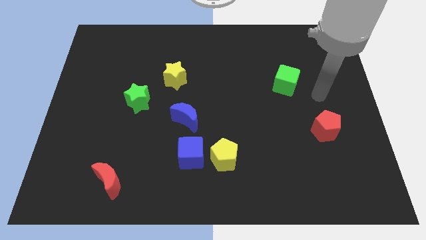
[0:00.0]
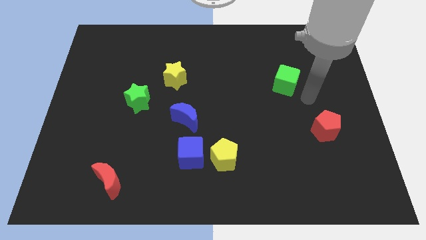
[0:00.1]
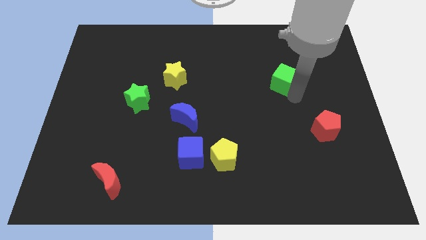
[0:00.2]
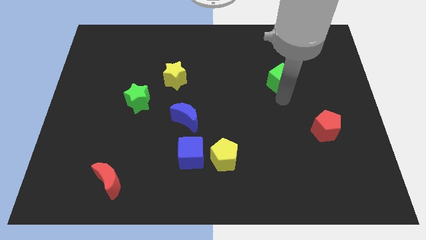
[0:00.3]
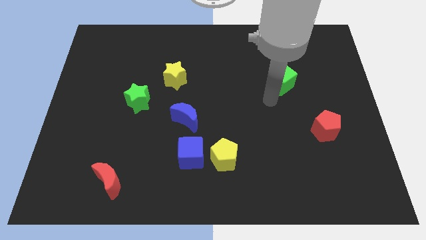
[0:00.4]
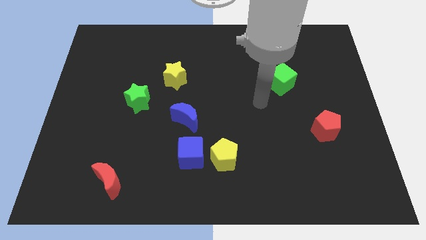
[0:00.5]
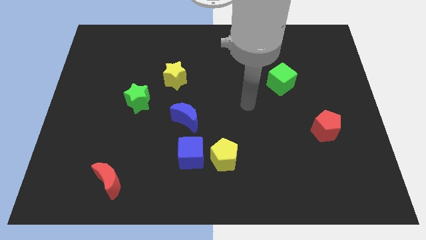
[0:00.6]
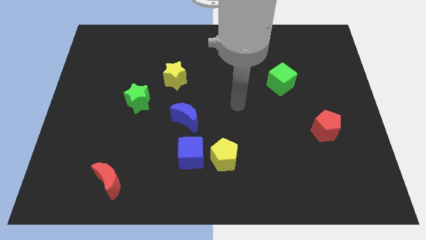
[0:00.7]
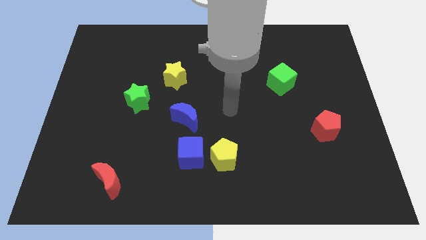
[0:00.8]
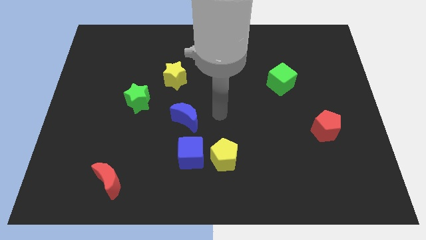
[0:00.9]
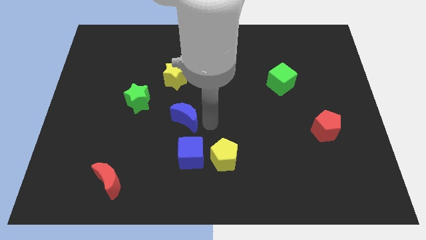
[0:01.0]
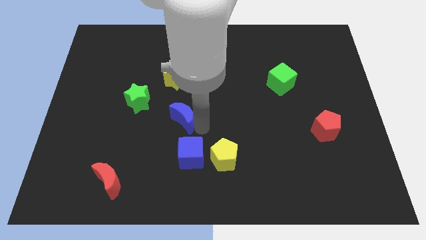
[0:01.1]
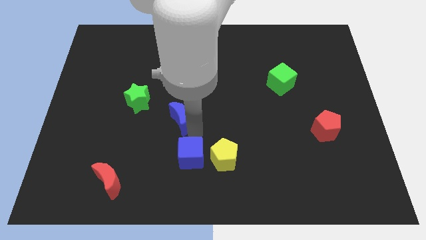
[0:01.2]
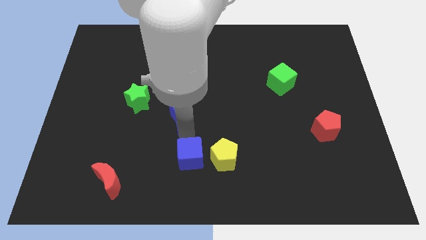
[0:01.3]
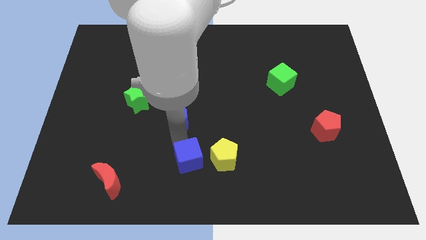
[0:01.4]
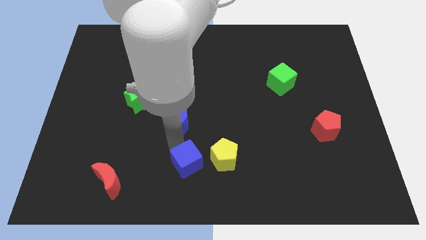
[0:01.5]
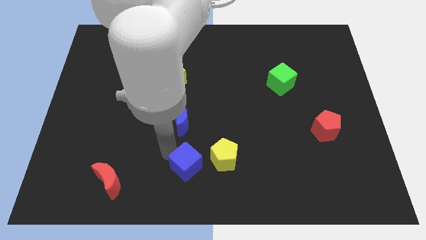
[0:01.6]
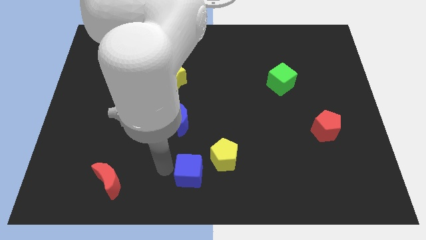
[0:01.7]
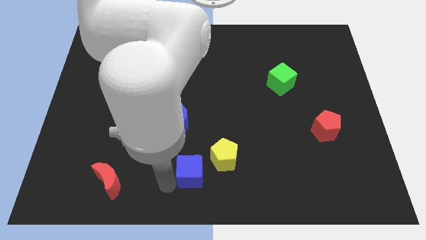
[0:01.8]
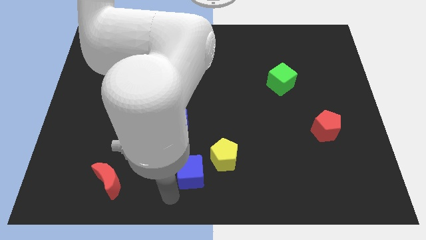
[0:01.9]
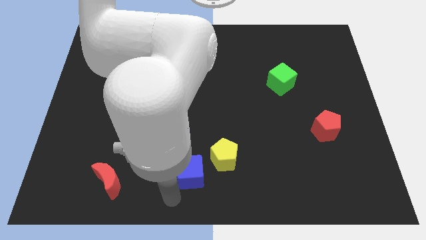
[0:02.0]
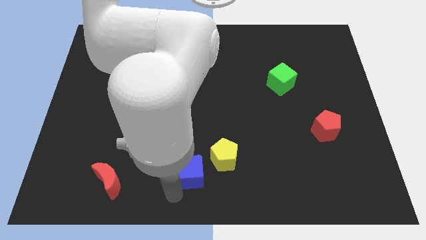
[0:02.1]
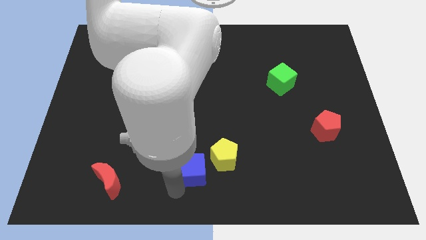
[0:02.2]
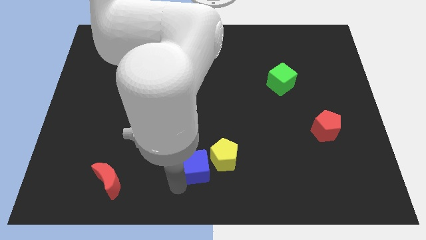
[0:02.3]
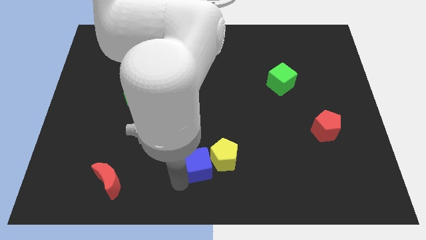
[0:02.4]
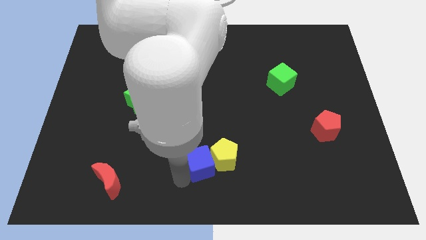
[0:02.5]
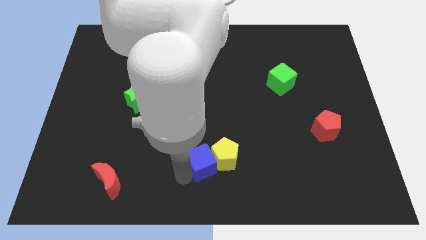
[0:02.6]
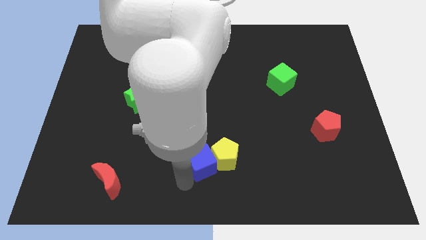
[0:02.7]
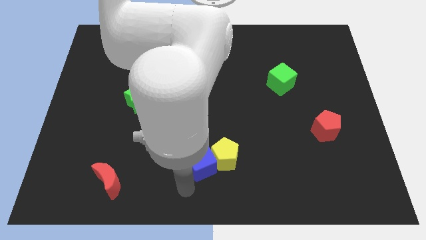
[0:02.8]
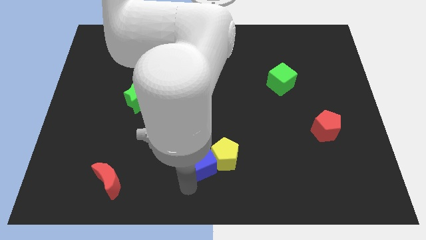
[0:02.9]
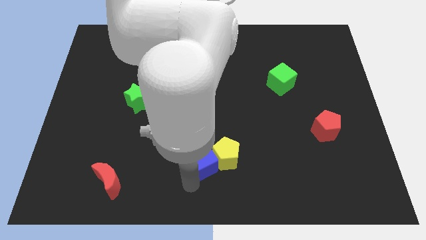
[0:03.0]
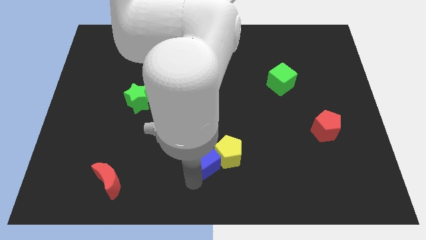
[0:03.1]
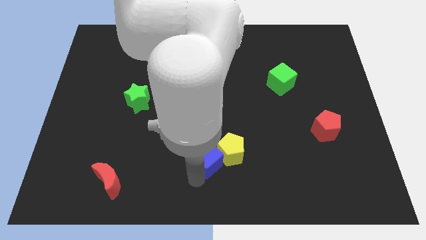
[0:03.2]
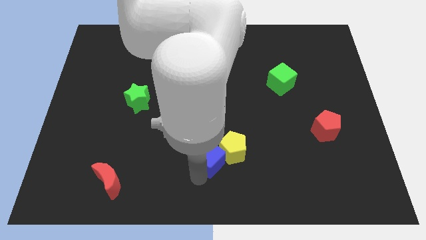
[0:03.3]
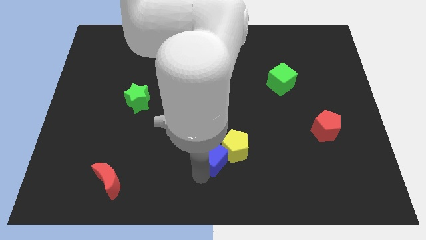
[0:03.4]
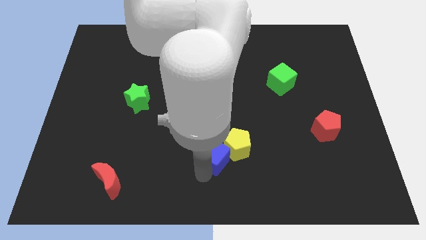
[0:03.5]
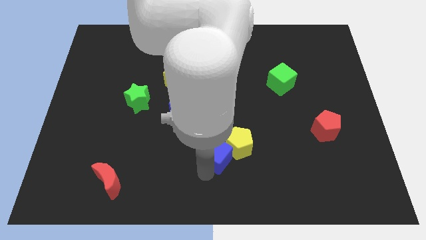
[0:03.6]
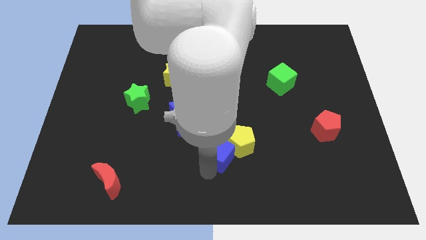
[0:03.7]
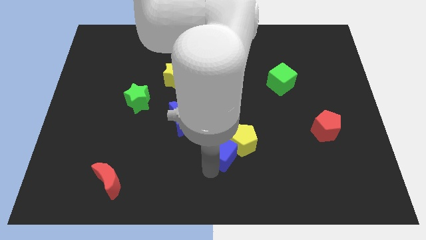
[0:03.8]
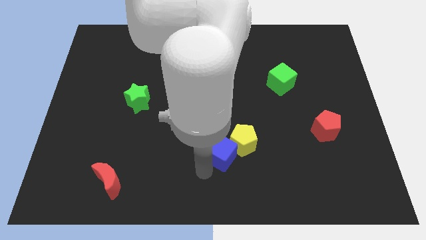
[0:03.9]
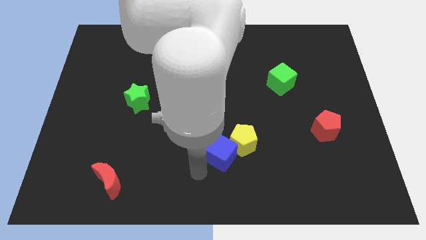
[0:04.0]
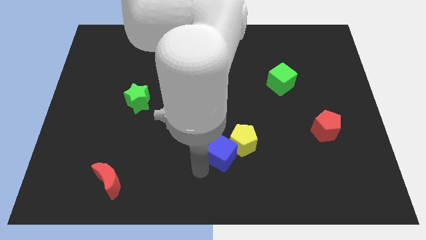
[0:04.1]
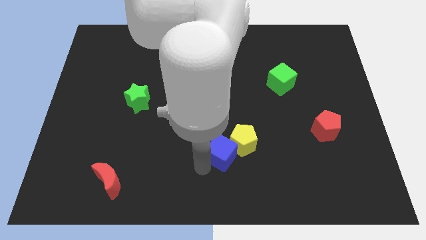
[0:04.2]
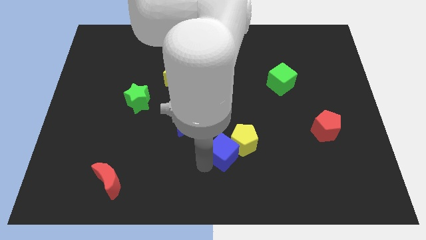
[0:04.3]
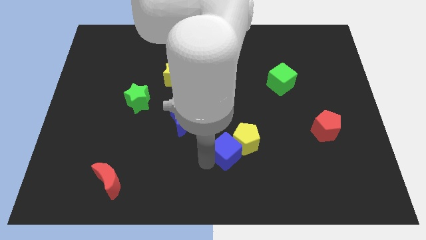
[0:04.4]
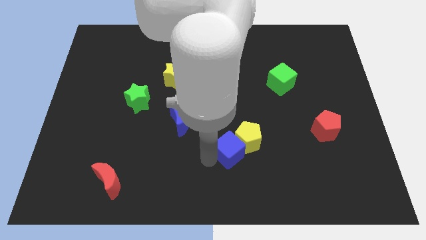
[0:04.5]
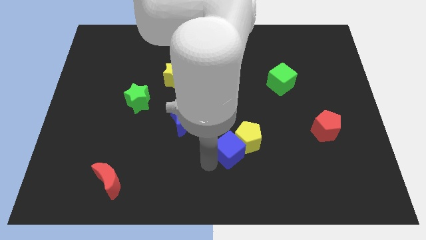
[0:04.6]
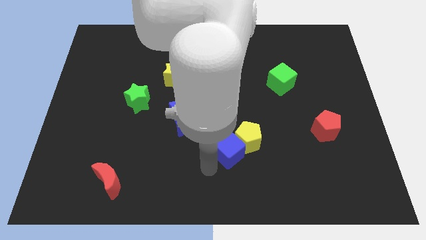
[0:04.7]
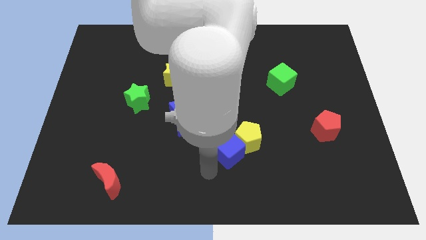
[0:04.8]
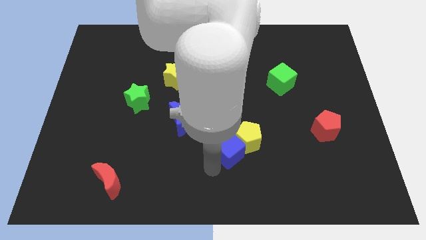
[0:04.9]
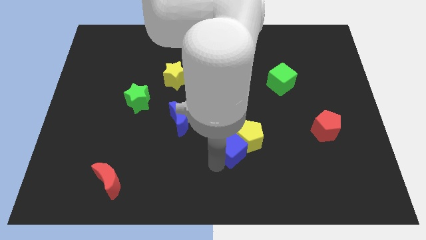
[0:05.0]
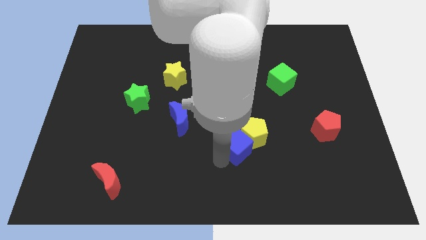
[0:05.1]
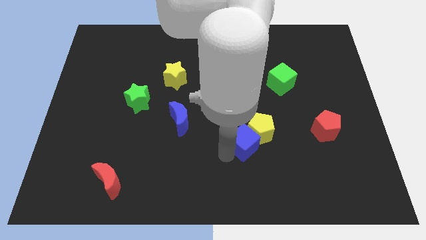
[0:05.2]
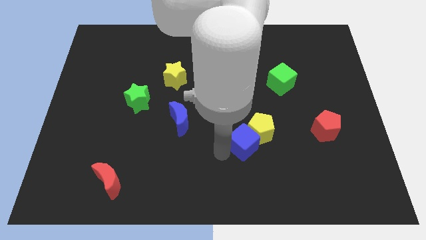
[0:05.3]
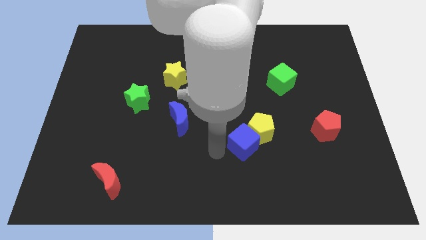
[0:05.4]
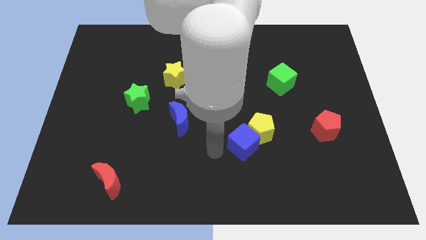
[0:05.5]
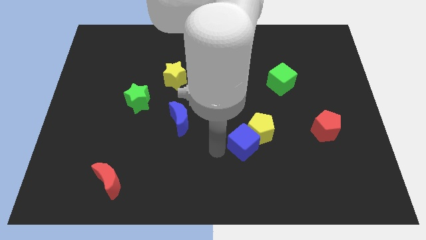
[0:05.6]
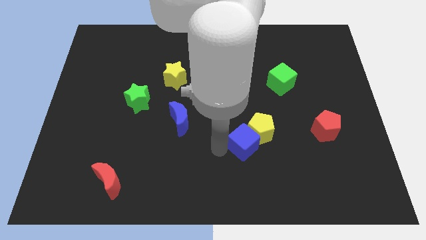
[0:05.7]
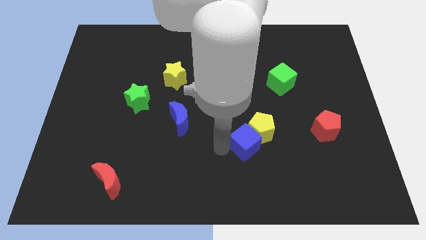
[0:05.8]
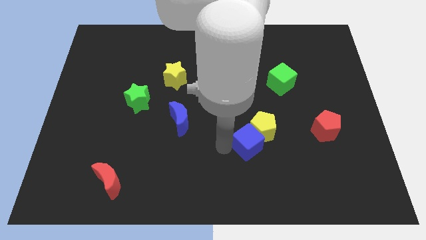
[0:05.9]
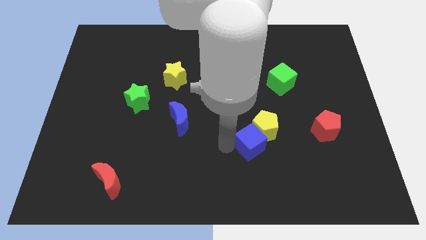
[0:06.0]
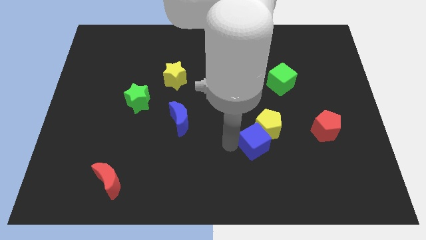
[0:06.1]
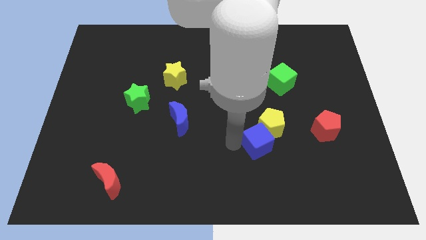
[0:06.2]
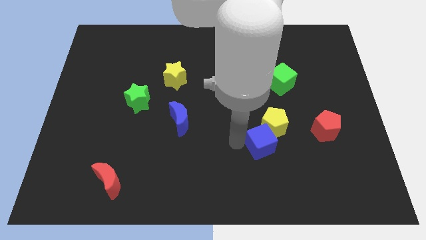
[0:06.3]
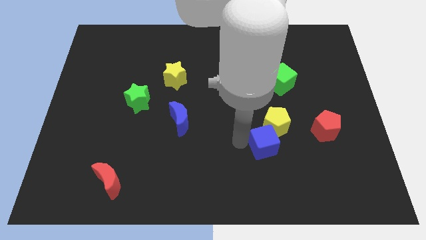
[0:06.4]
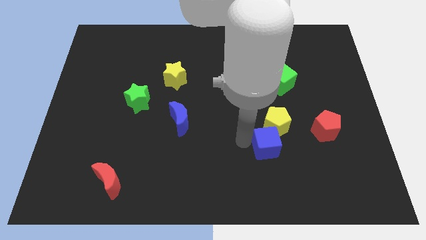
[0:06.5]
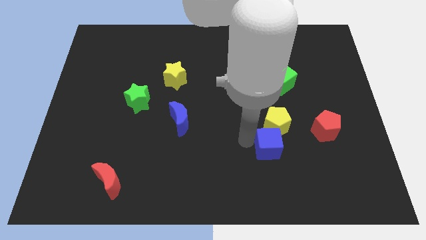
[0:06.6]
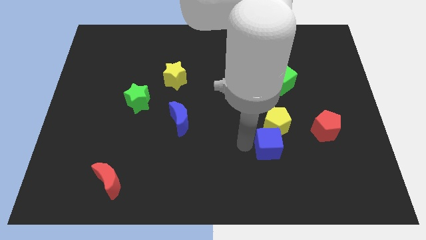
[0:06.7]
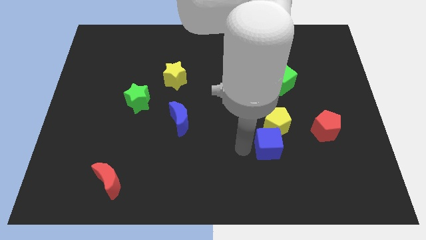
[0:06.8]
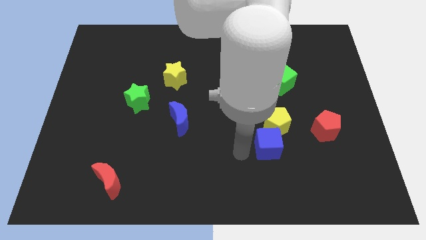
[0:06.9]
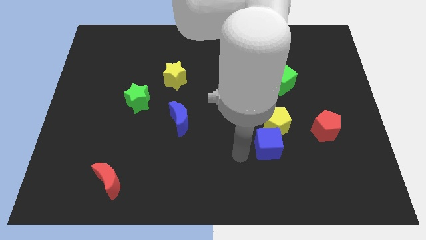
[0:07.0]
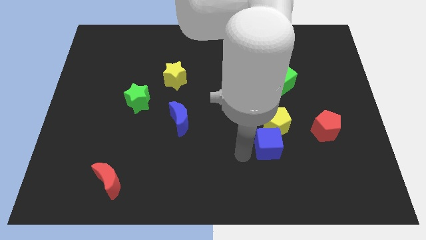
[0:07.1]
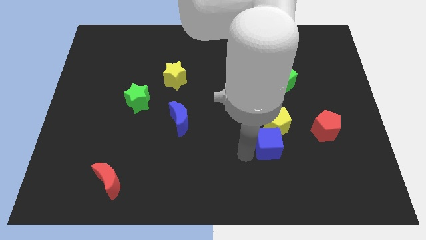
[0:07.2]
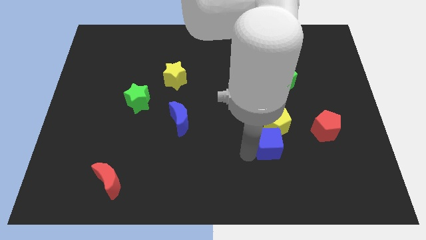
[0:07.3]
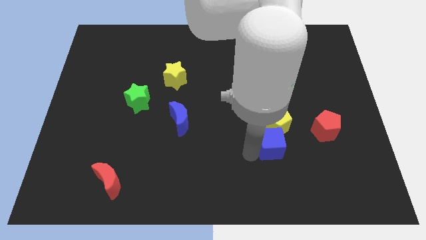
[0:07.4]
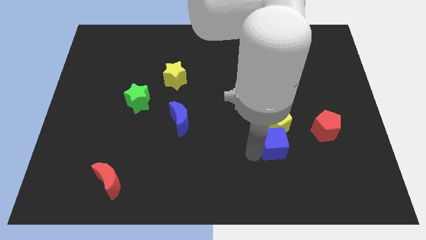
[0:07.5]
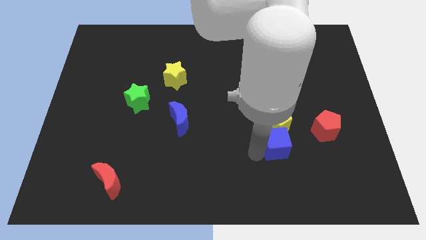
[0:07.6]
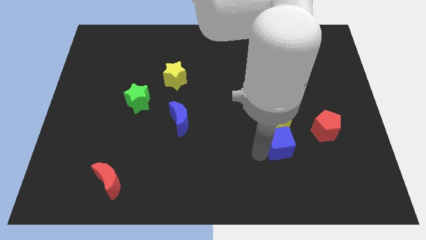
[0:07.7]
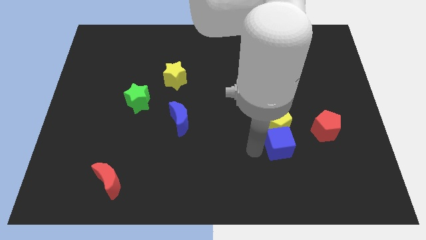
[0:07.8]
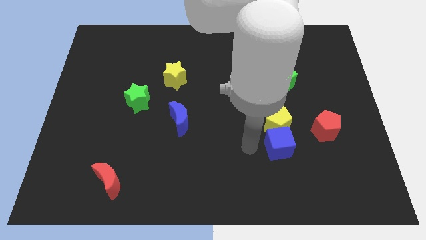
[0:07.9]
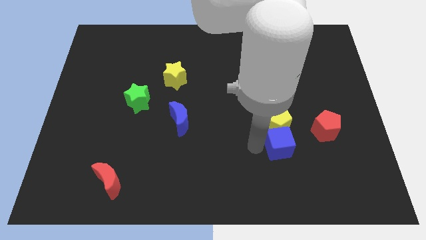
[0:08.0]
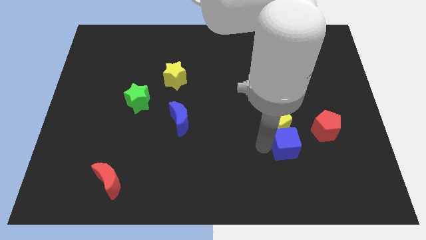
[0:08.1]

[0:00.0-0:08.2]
slide the blue cube to the right
